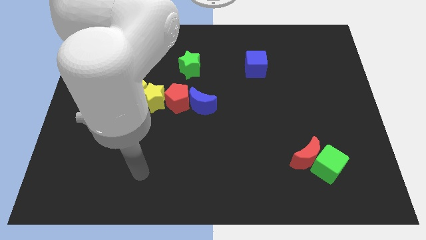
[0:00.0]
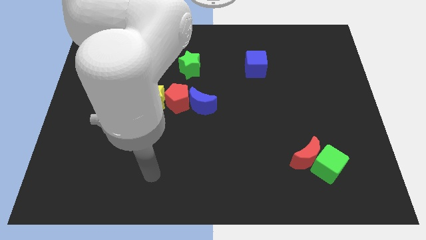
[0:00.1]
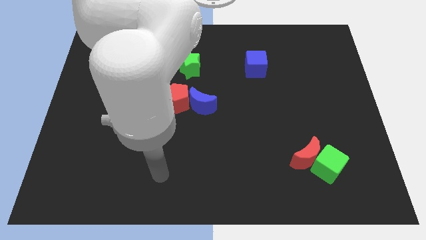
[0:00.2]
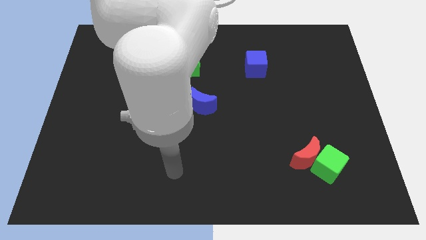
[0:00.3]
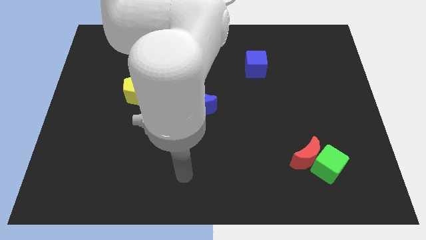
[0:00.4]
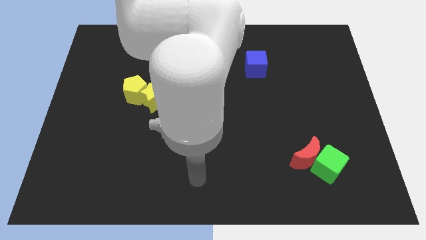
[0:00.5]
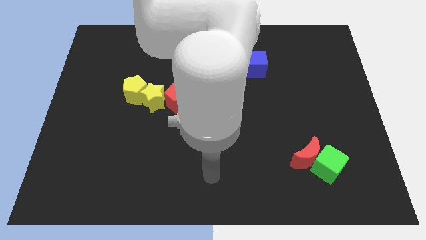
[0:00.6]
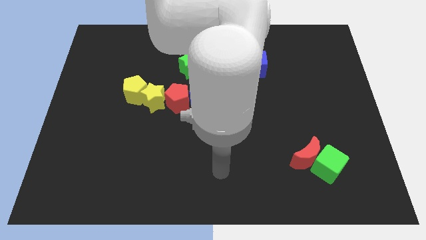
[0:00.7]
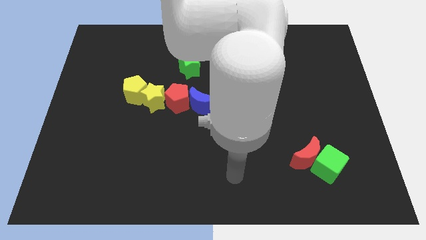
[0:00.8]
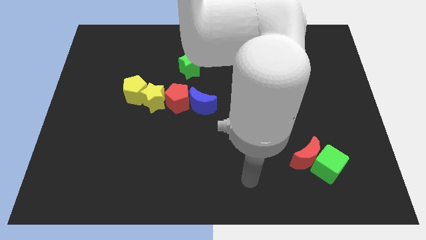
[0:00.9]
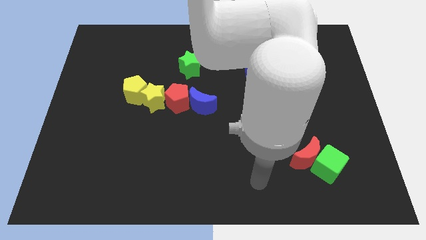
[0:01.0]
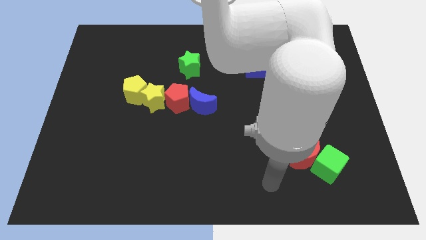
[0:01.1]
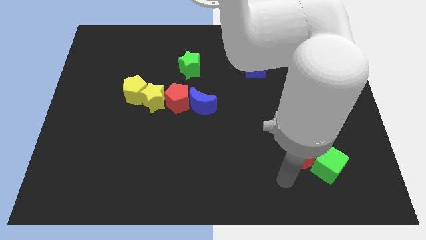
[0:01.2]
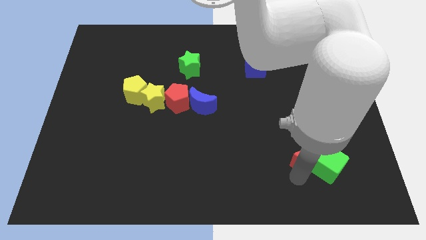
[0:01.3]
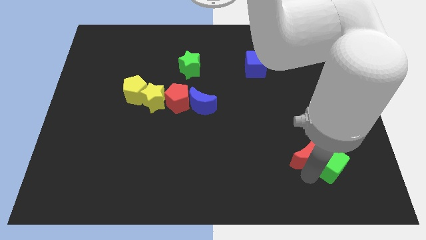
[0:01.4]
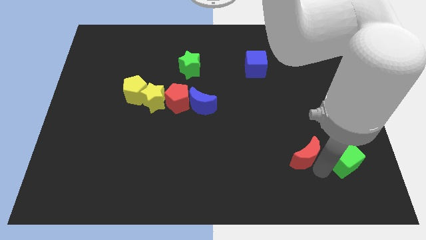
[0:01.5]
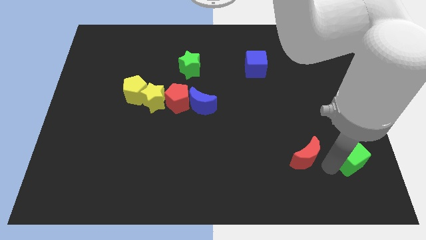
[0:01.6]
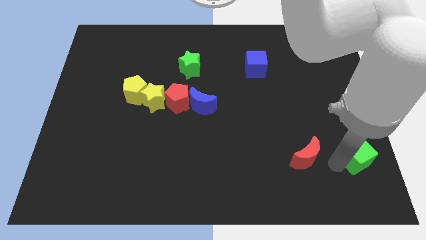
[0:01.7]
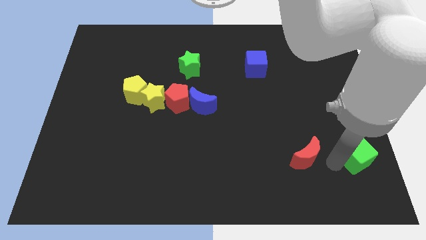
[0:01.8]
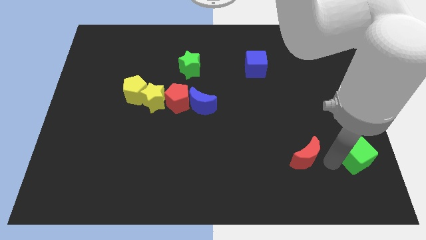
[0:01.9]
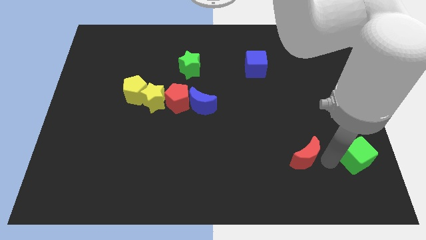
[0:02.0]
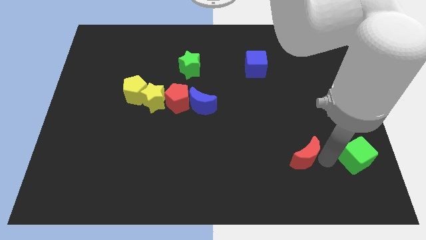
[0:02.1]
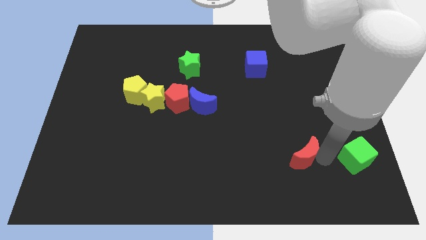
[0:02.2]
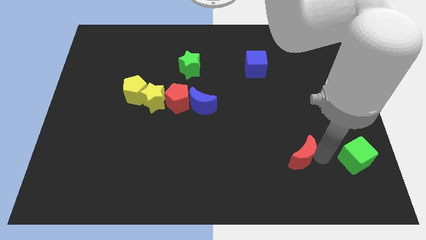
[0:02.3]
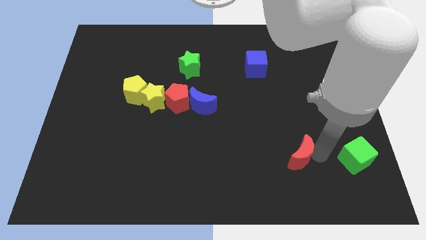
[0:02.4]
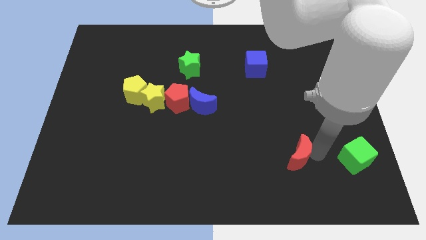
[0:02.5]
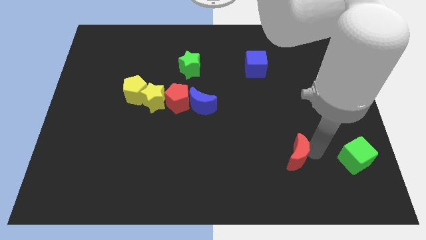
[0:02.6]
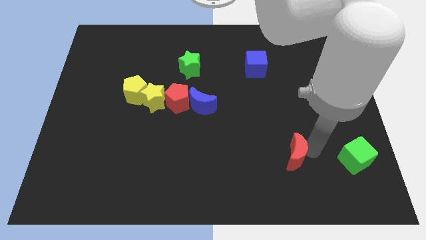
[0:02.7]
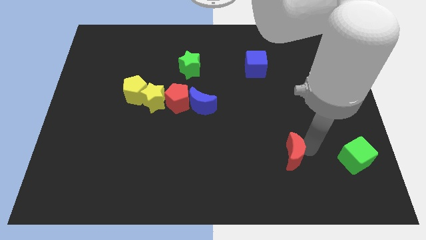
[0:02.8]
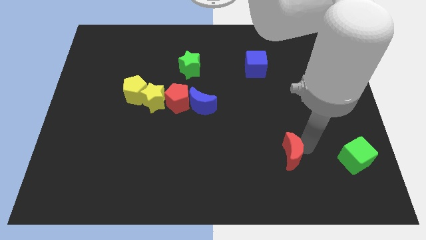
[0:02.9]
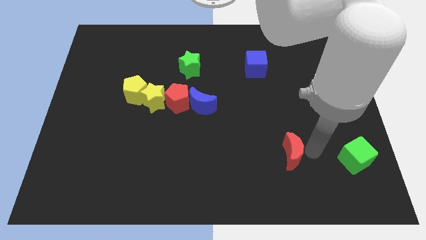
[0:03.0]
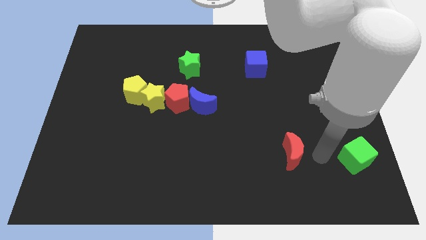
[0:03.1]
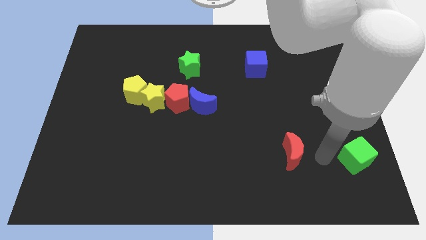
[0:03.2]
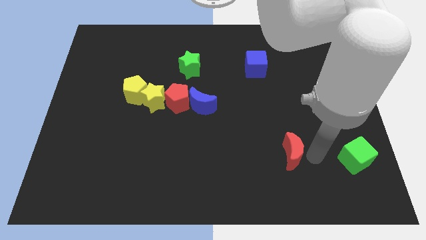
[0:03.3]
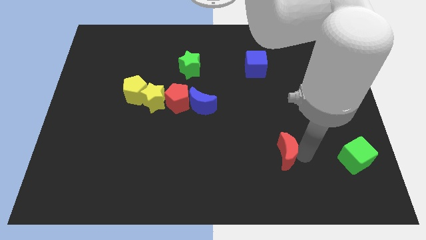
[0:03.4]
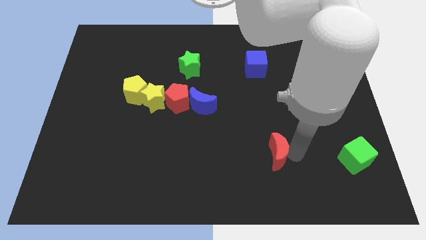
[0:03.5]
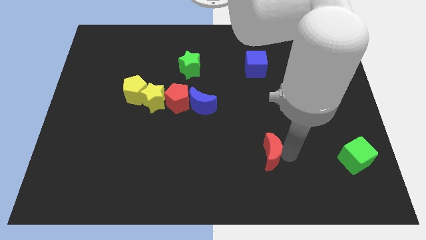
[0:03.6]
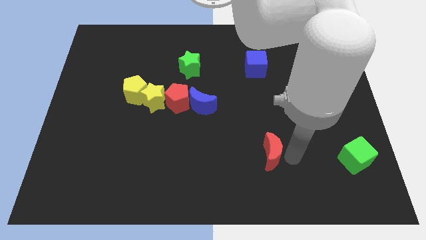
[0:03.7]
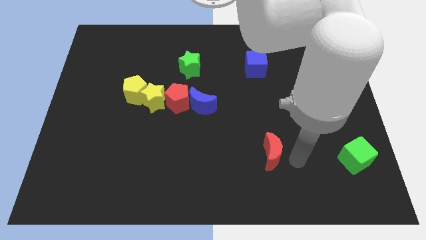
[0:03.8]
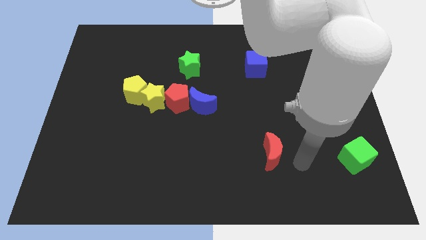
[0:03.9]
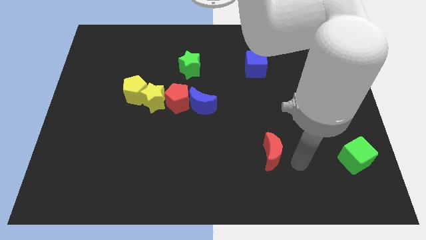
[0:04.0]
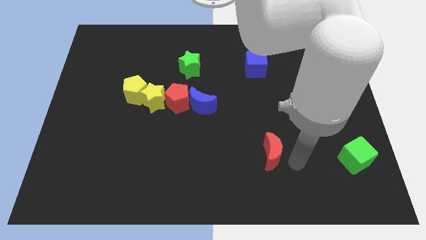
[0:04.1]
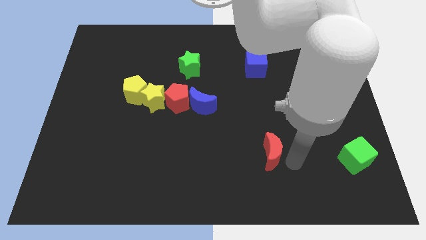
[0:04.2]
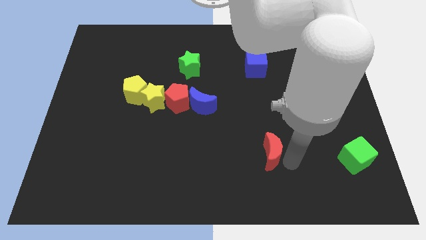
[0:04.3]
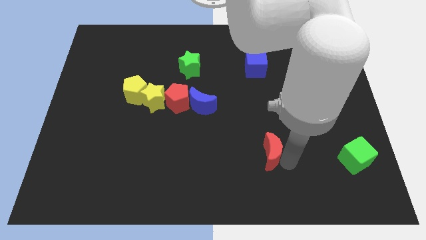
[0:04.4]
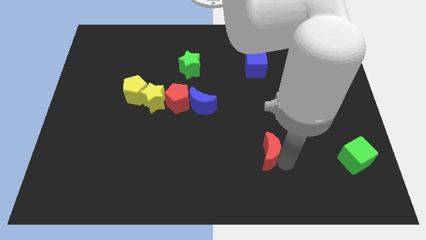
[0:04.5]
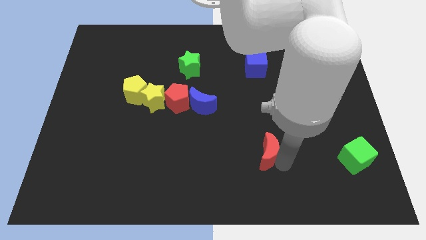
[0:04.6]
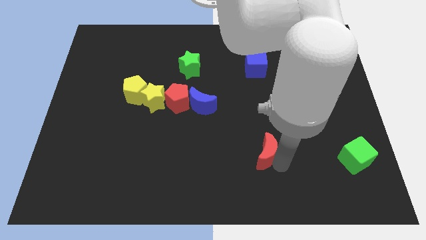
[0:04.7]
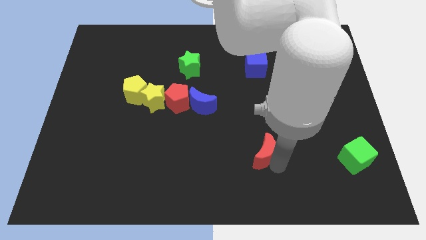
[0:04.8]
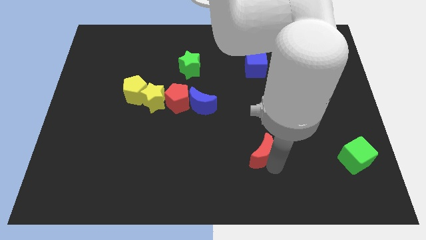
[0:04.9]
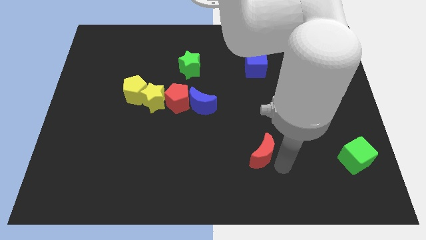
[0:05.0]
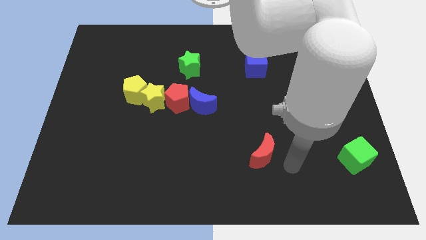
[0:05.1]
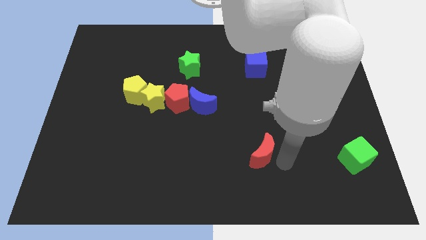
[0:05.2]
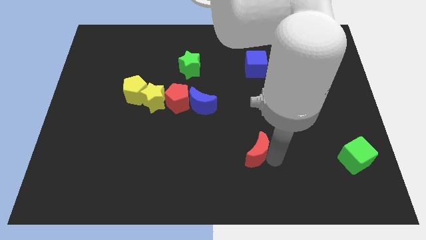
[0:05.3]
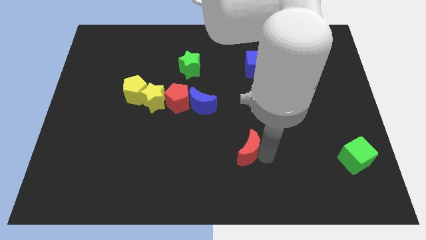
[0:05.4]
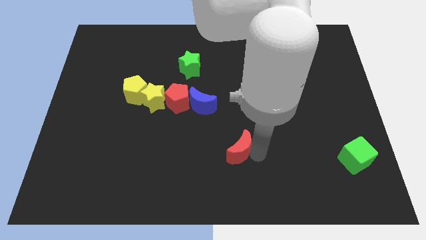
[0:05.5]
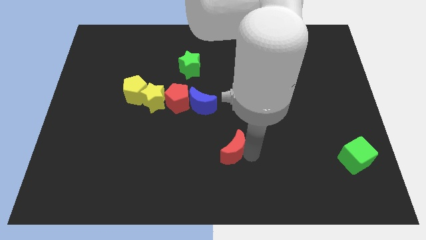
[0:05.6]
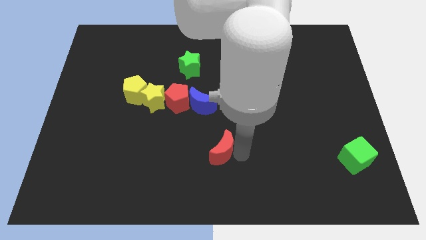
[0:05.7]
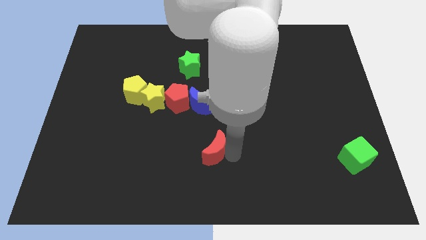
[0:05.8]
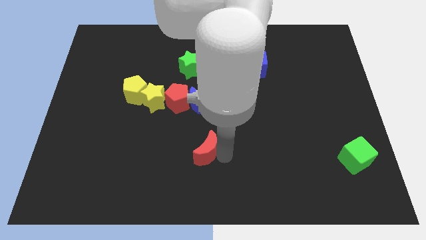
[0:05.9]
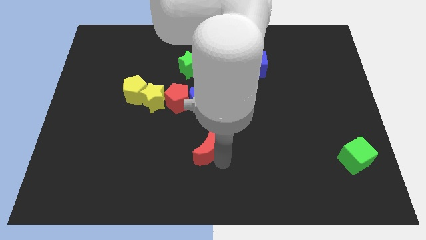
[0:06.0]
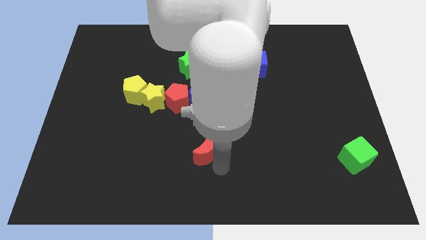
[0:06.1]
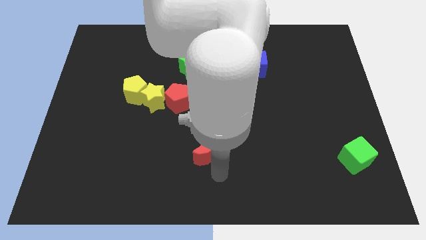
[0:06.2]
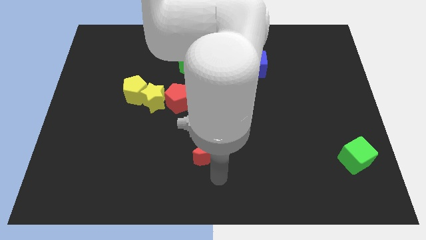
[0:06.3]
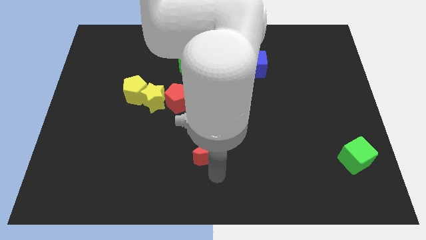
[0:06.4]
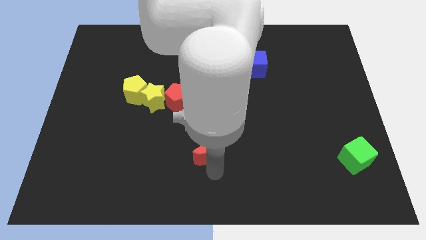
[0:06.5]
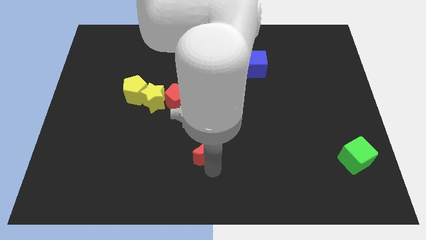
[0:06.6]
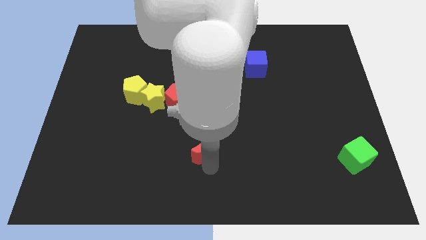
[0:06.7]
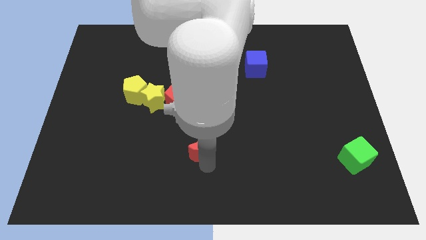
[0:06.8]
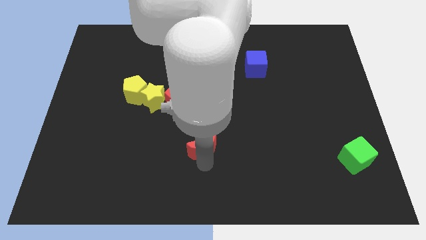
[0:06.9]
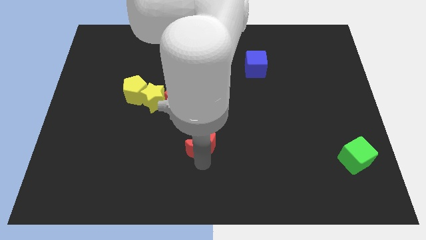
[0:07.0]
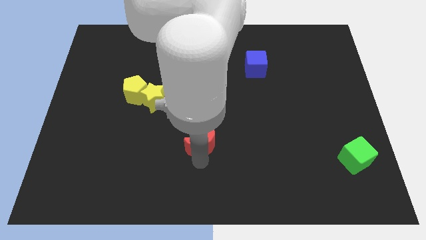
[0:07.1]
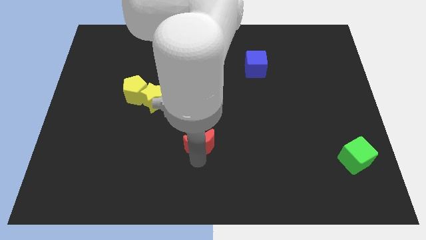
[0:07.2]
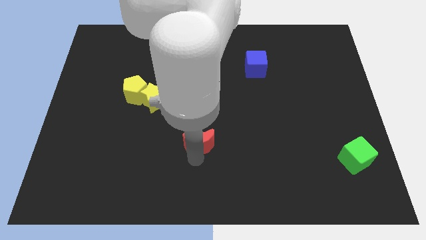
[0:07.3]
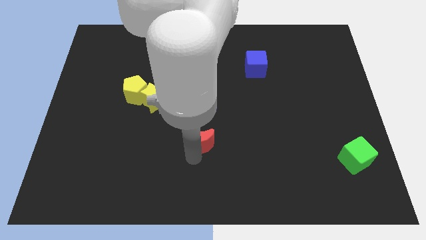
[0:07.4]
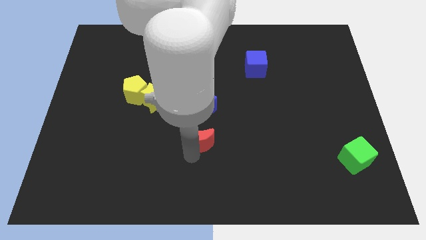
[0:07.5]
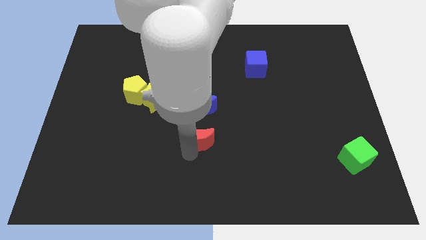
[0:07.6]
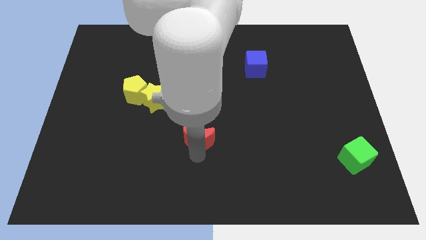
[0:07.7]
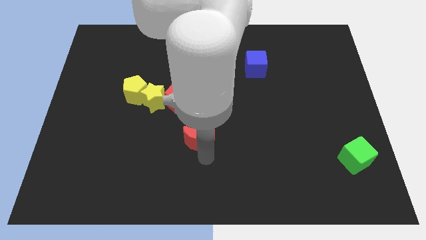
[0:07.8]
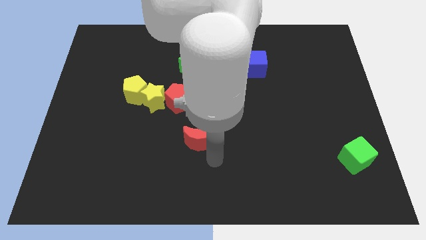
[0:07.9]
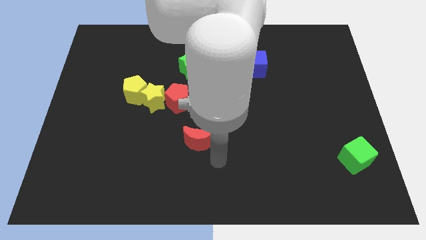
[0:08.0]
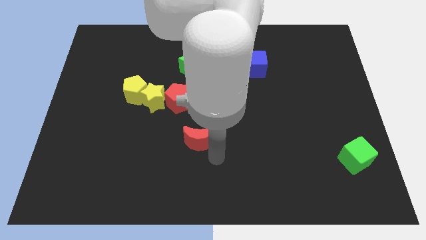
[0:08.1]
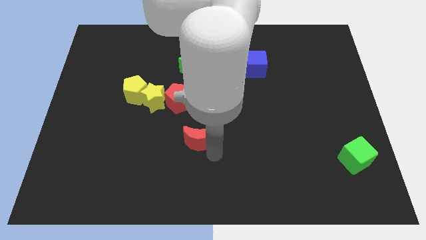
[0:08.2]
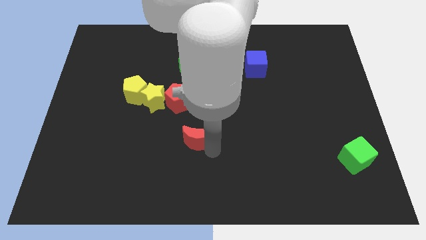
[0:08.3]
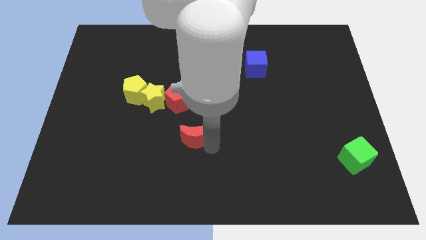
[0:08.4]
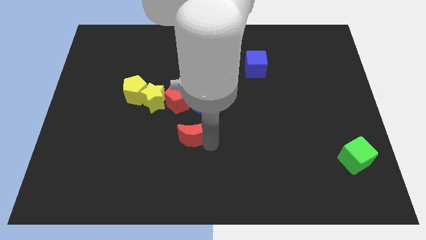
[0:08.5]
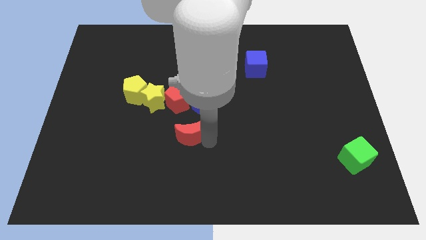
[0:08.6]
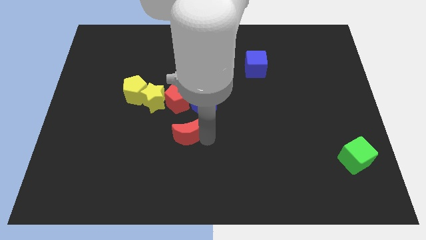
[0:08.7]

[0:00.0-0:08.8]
move the red moon to the bottom right of the yellow star
